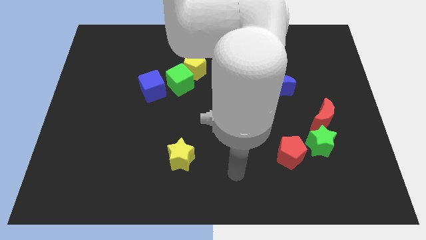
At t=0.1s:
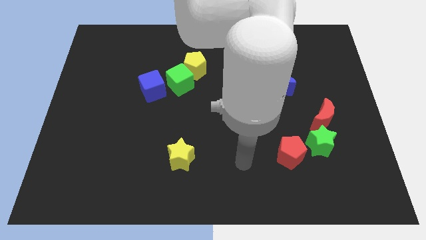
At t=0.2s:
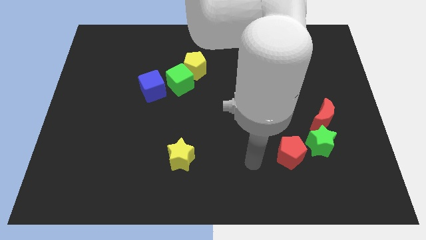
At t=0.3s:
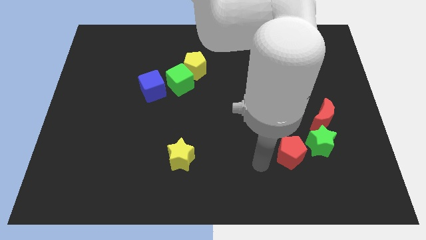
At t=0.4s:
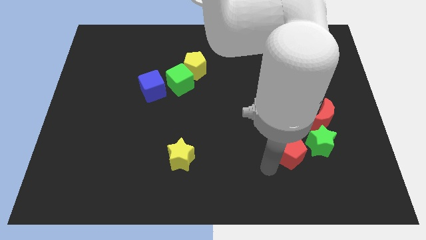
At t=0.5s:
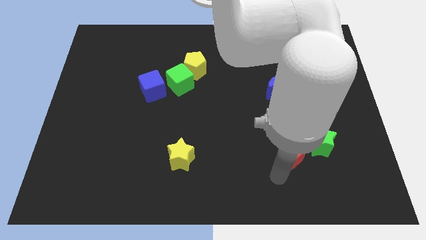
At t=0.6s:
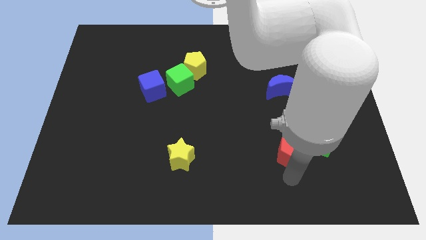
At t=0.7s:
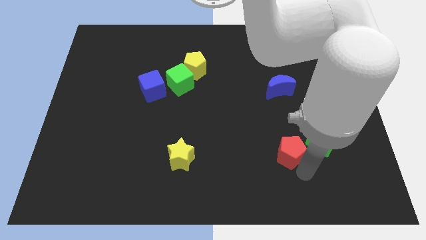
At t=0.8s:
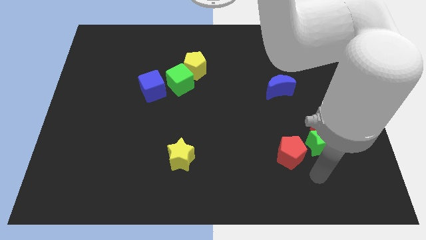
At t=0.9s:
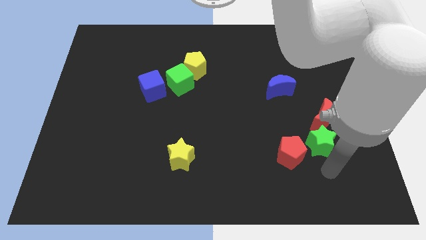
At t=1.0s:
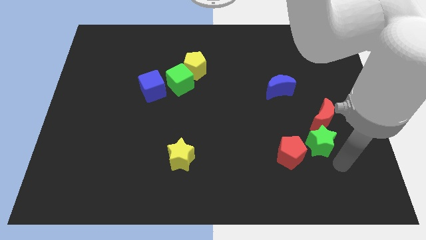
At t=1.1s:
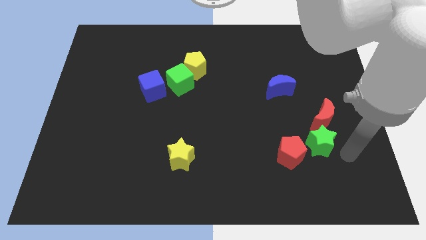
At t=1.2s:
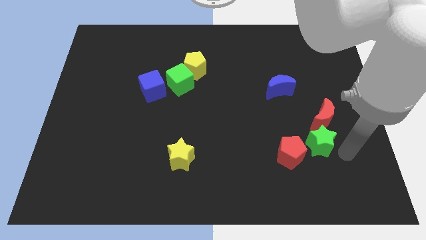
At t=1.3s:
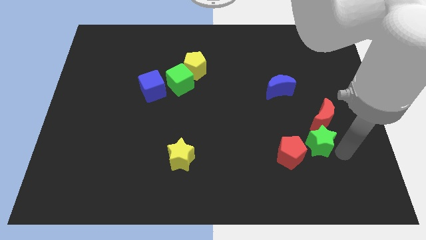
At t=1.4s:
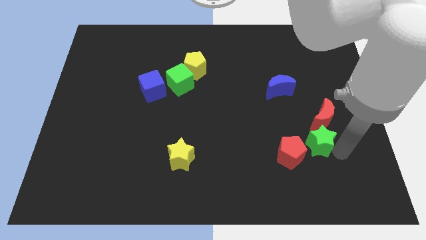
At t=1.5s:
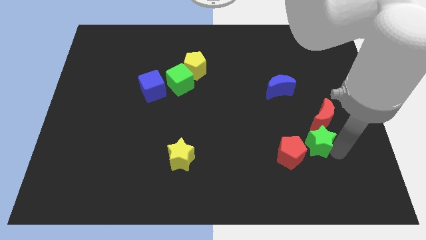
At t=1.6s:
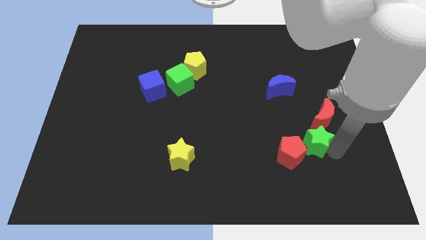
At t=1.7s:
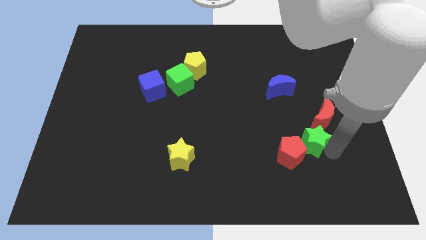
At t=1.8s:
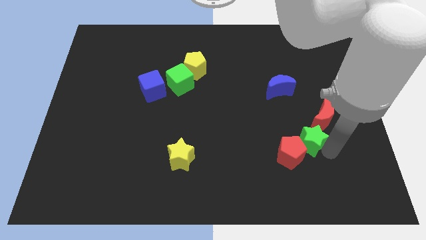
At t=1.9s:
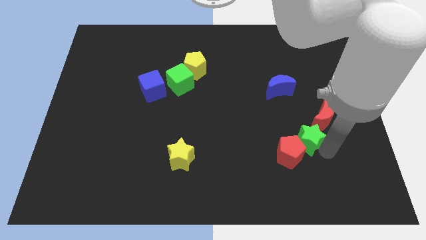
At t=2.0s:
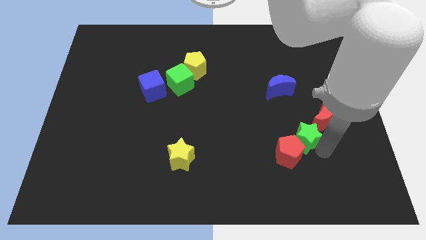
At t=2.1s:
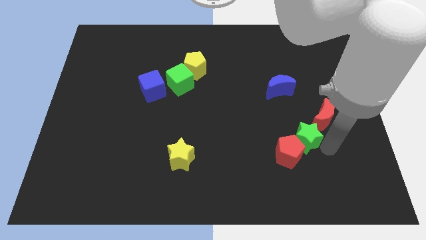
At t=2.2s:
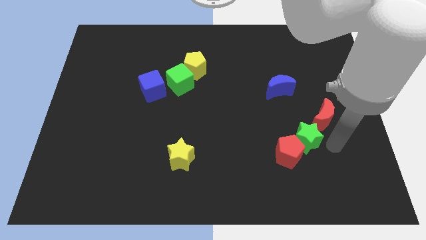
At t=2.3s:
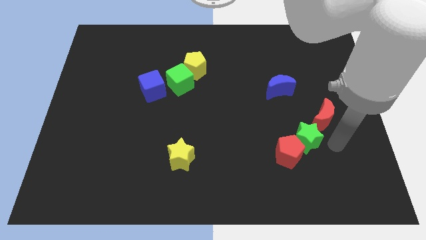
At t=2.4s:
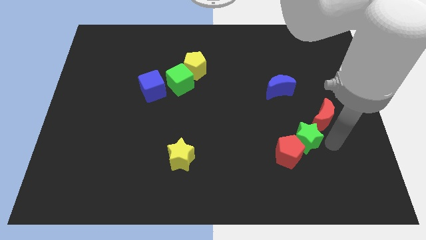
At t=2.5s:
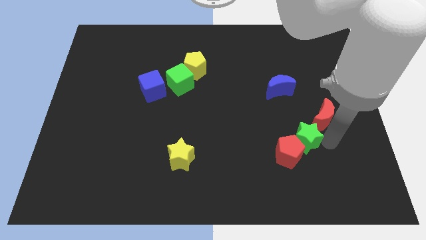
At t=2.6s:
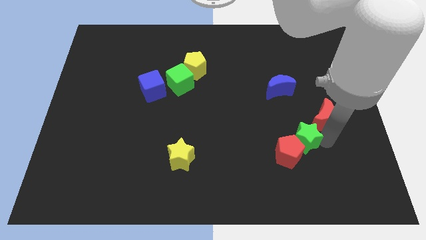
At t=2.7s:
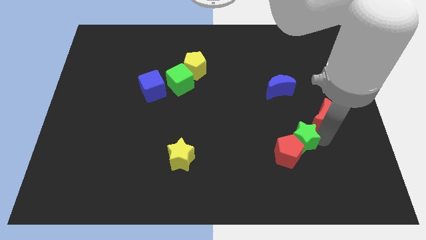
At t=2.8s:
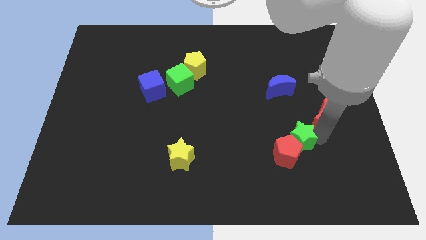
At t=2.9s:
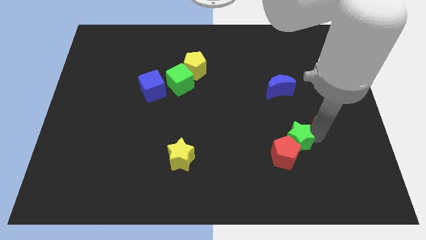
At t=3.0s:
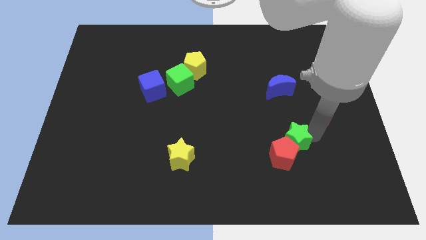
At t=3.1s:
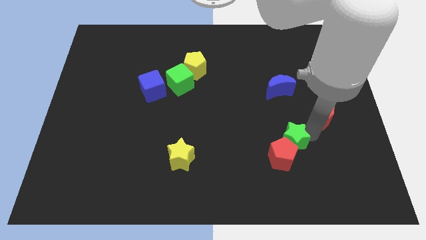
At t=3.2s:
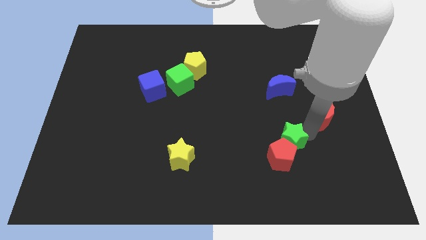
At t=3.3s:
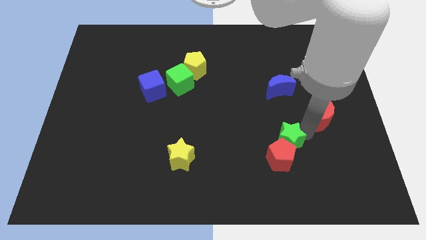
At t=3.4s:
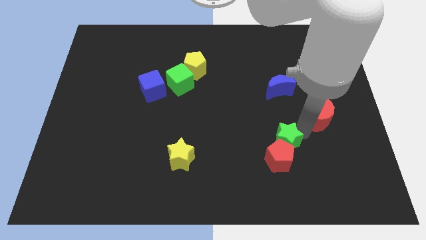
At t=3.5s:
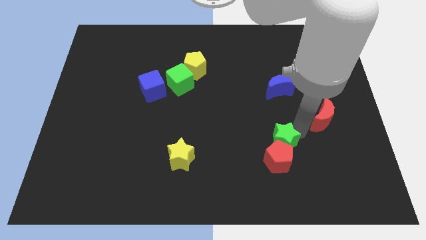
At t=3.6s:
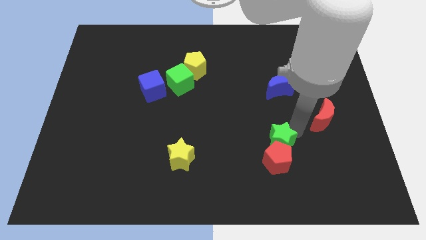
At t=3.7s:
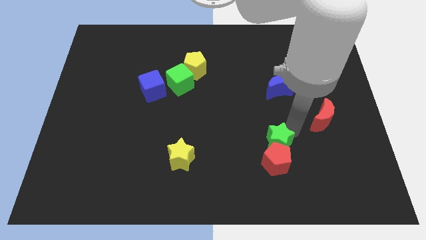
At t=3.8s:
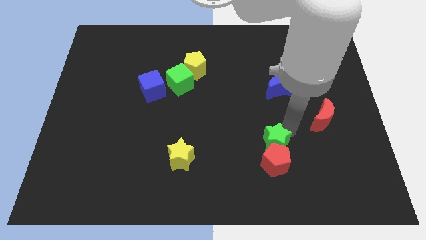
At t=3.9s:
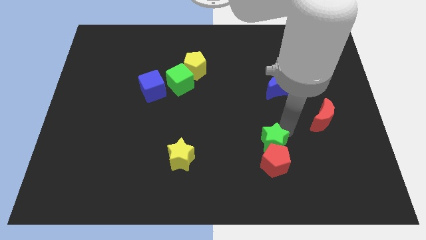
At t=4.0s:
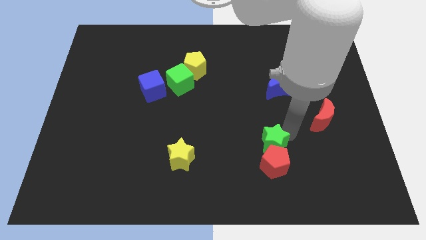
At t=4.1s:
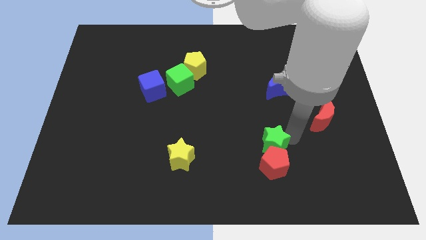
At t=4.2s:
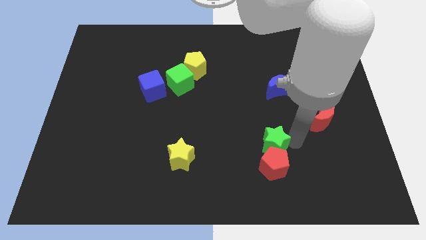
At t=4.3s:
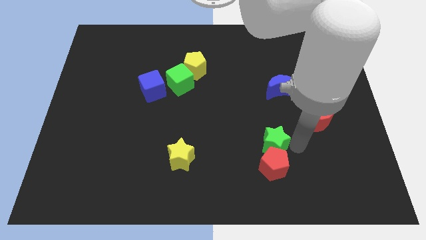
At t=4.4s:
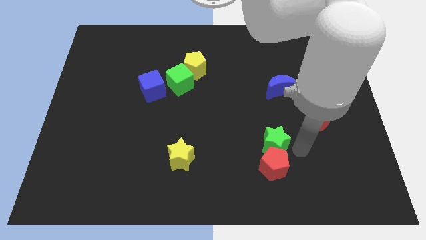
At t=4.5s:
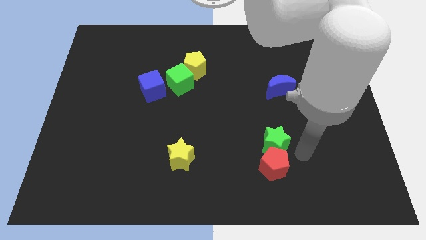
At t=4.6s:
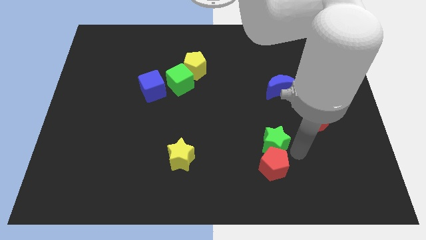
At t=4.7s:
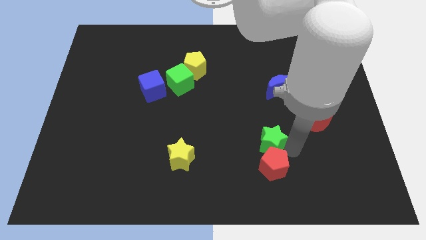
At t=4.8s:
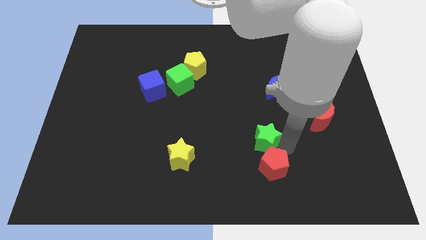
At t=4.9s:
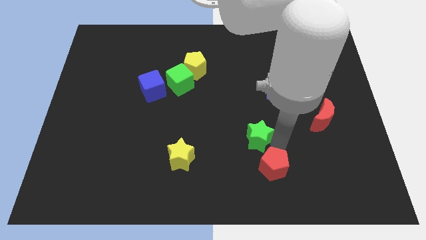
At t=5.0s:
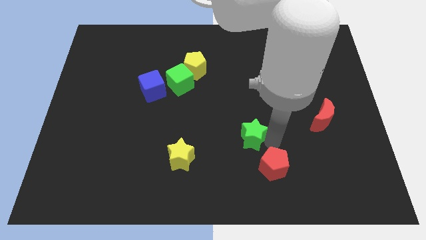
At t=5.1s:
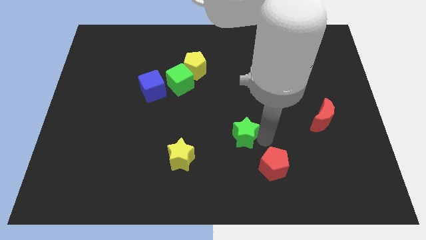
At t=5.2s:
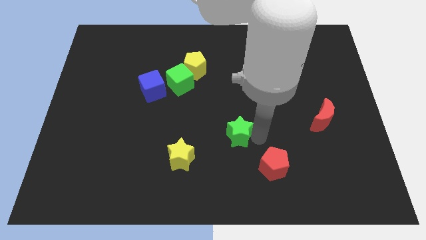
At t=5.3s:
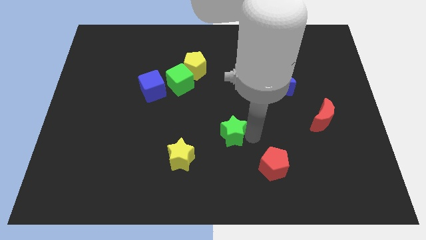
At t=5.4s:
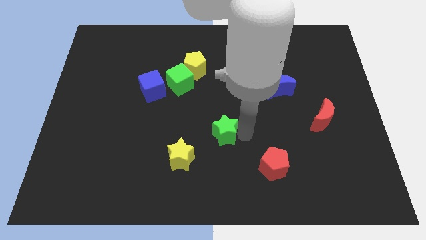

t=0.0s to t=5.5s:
move the green star to the left

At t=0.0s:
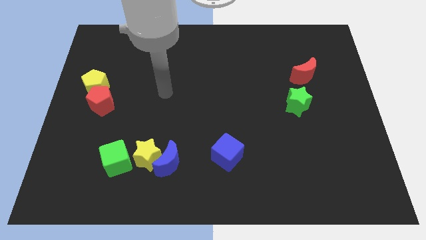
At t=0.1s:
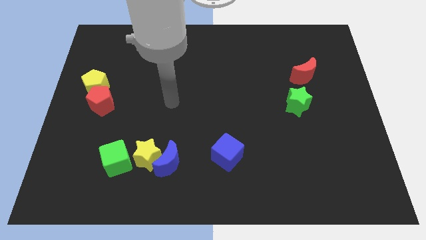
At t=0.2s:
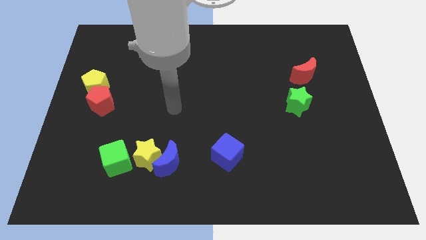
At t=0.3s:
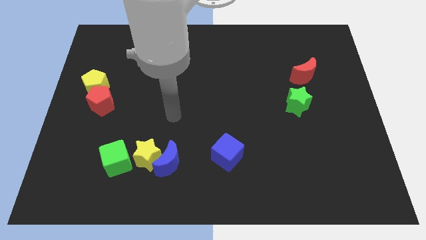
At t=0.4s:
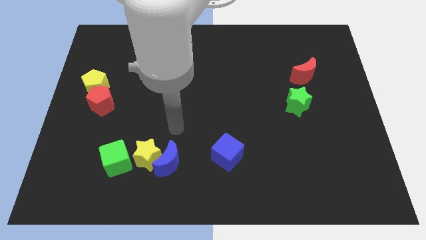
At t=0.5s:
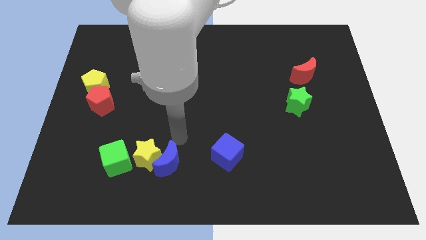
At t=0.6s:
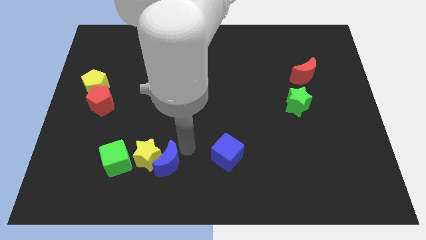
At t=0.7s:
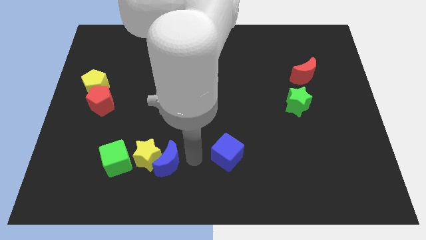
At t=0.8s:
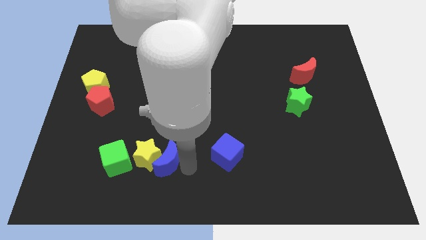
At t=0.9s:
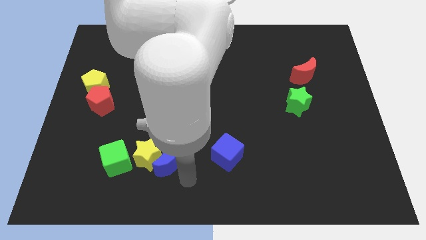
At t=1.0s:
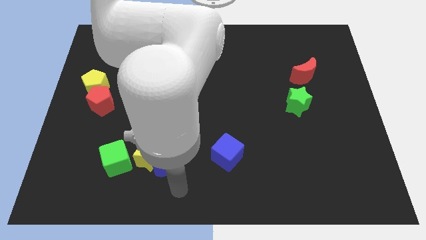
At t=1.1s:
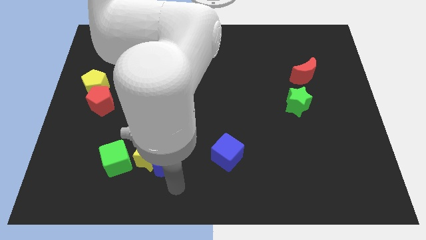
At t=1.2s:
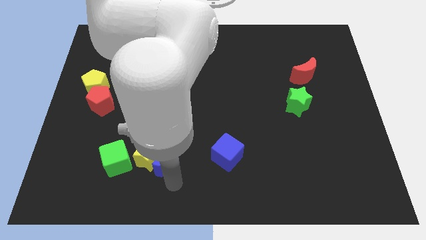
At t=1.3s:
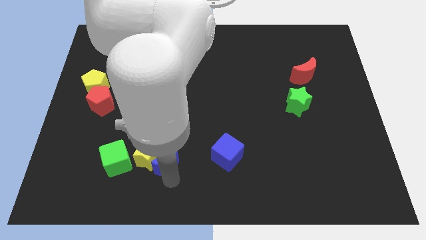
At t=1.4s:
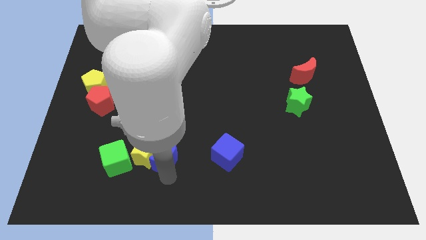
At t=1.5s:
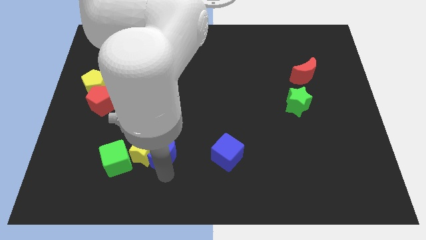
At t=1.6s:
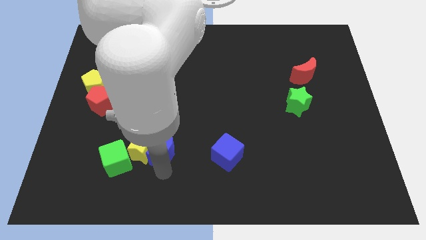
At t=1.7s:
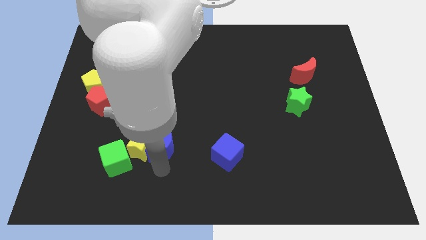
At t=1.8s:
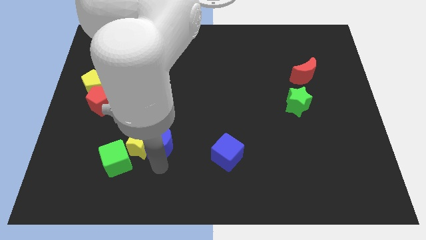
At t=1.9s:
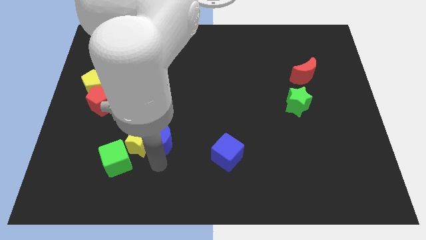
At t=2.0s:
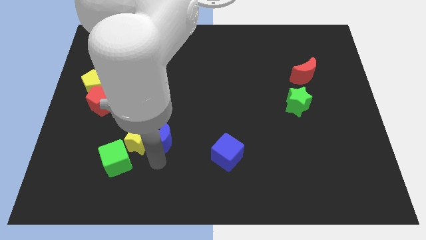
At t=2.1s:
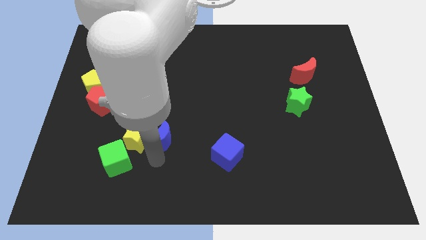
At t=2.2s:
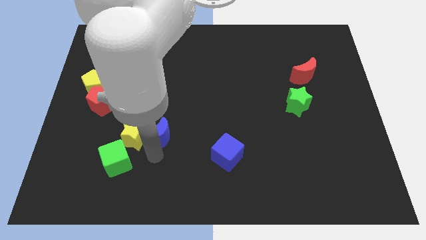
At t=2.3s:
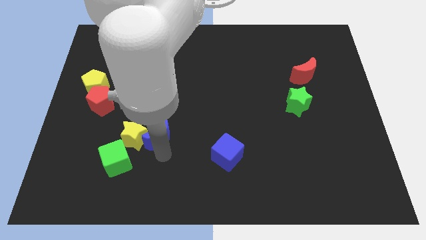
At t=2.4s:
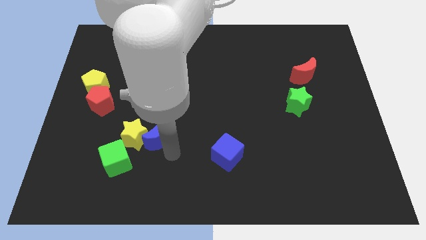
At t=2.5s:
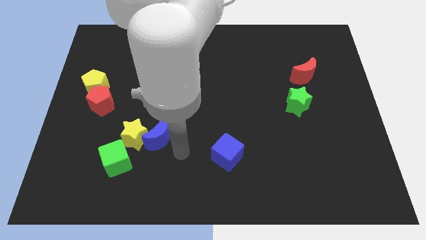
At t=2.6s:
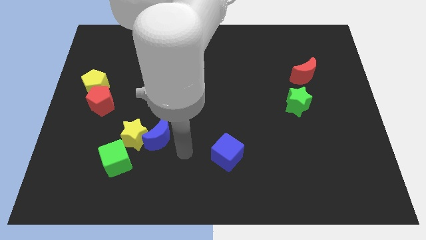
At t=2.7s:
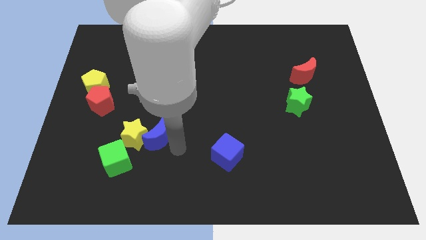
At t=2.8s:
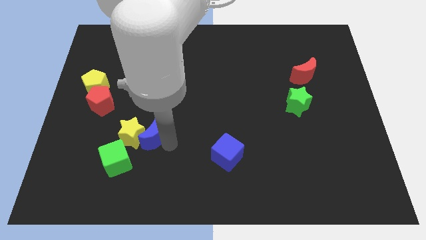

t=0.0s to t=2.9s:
push the blue moon up and left diagonally somewhat
